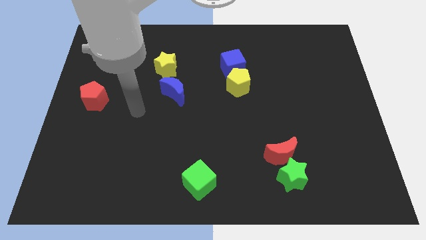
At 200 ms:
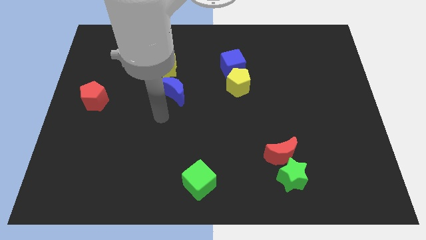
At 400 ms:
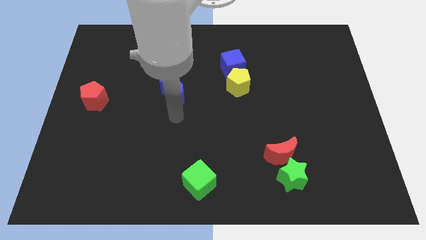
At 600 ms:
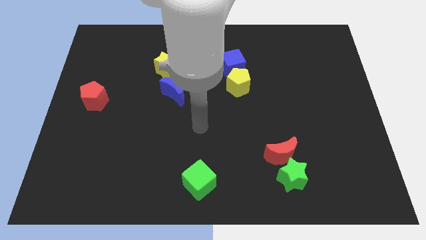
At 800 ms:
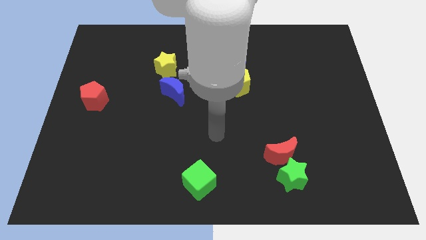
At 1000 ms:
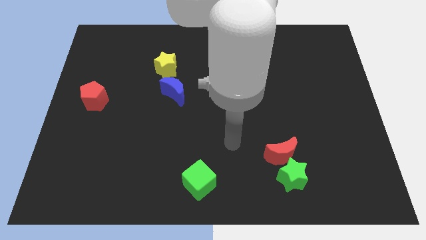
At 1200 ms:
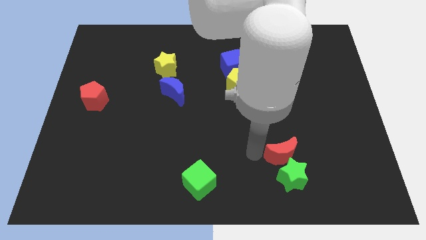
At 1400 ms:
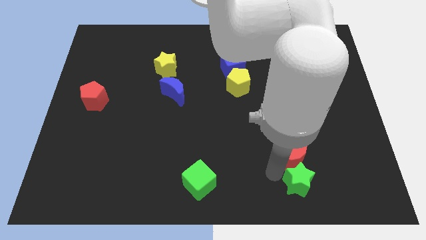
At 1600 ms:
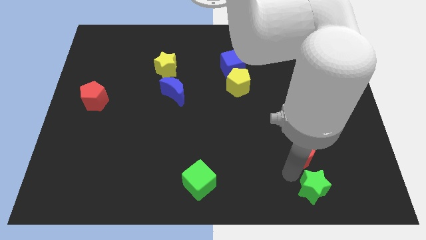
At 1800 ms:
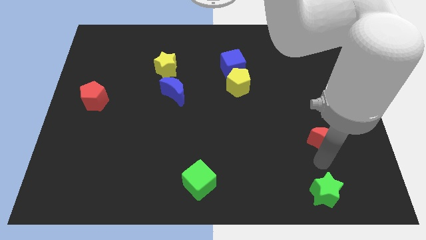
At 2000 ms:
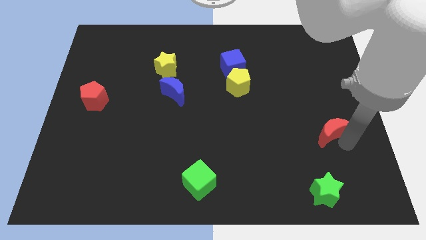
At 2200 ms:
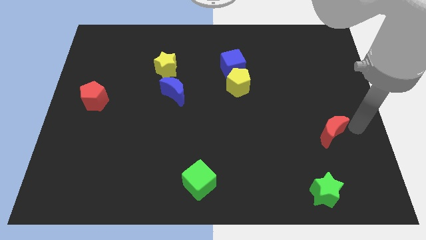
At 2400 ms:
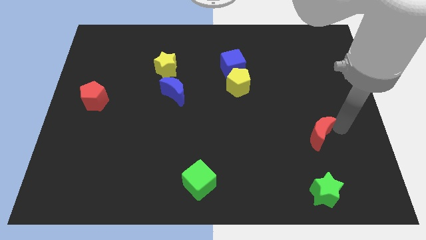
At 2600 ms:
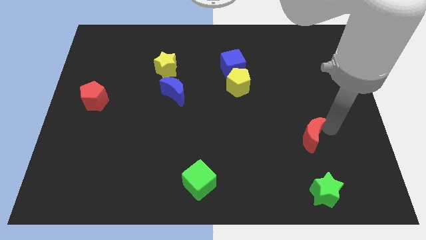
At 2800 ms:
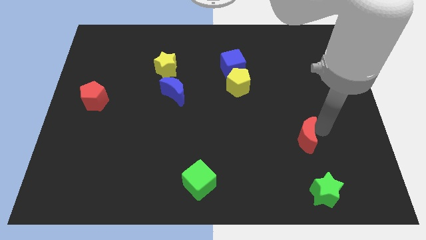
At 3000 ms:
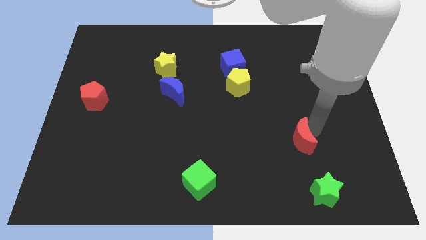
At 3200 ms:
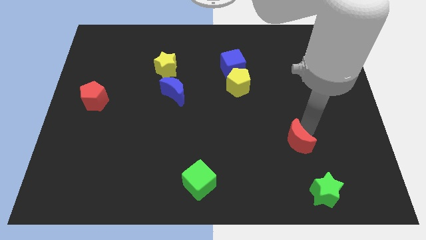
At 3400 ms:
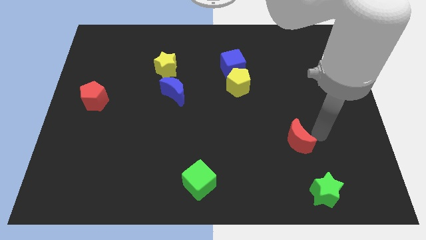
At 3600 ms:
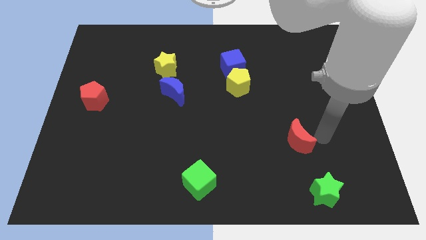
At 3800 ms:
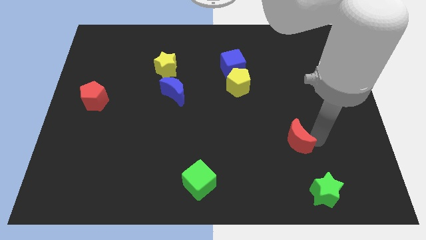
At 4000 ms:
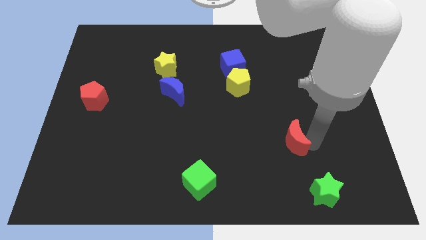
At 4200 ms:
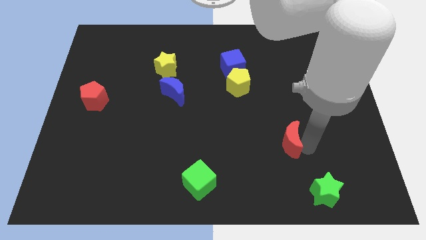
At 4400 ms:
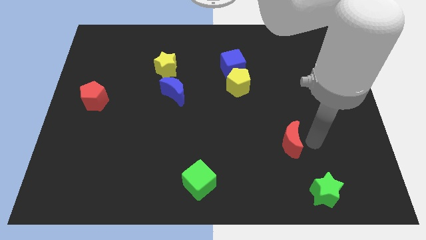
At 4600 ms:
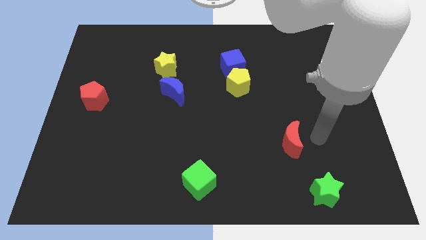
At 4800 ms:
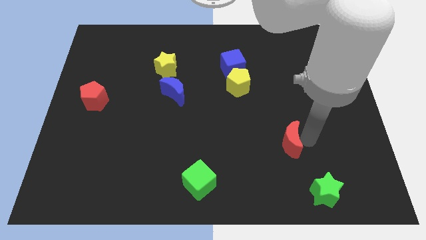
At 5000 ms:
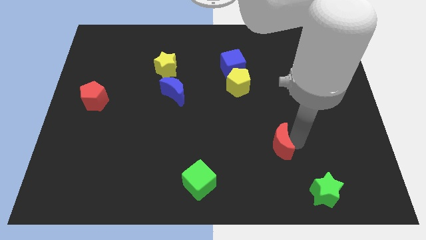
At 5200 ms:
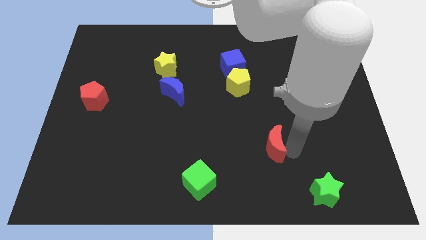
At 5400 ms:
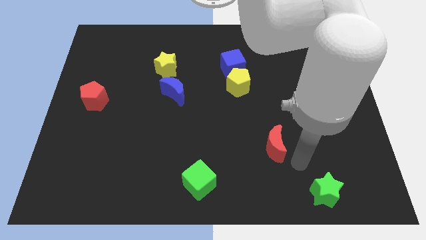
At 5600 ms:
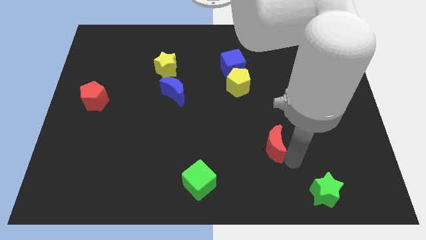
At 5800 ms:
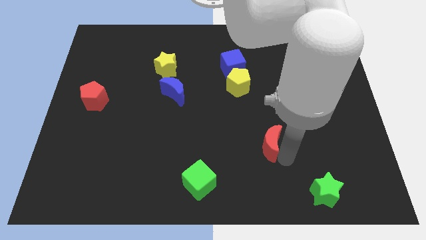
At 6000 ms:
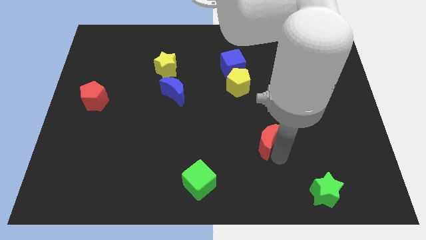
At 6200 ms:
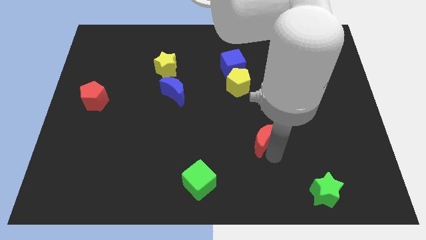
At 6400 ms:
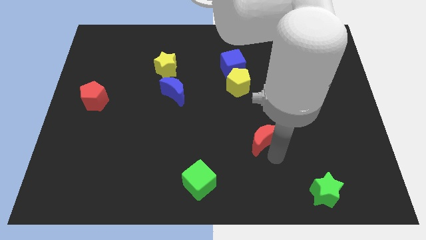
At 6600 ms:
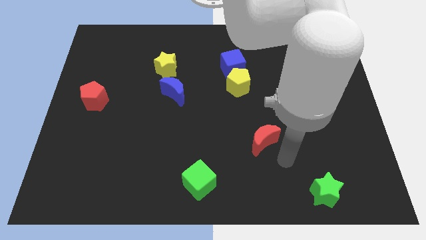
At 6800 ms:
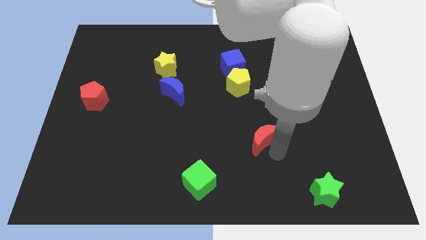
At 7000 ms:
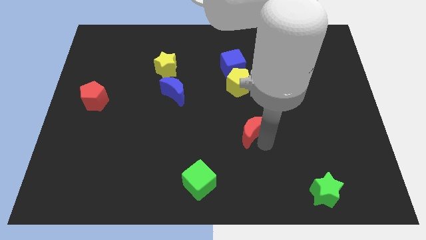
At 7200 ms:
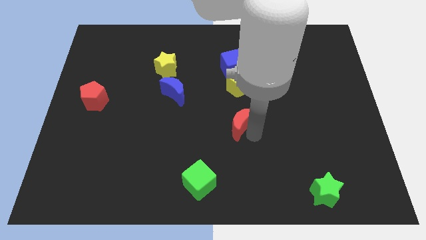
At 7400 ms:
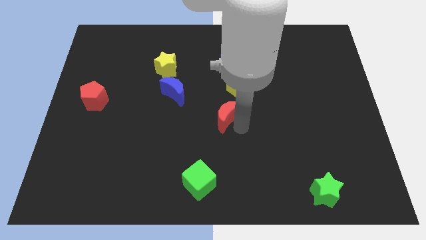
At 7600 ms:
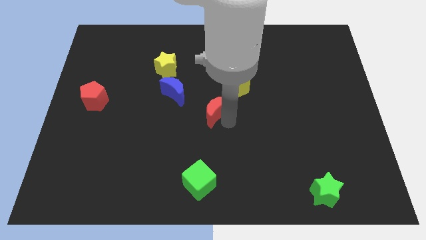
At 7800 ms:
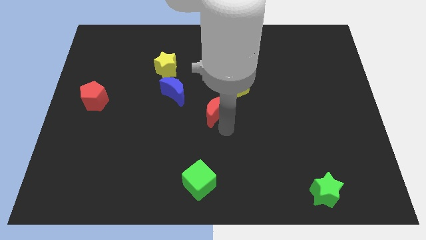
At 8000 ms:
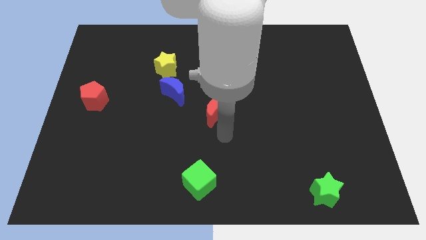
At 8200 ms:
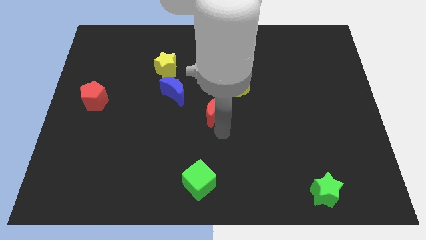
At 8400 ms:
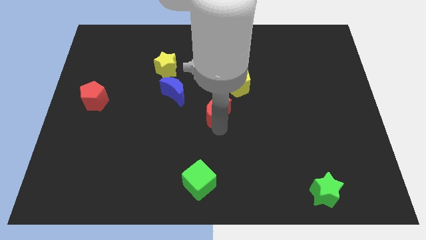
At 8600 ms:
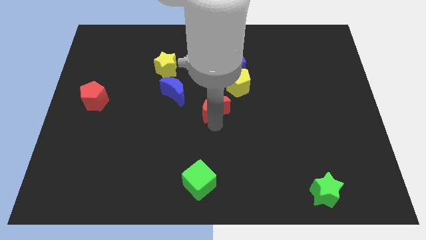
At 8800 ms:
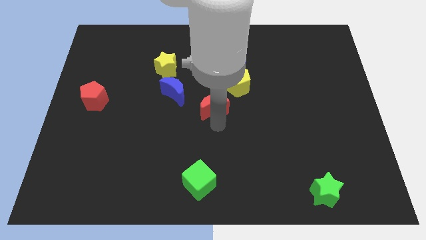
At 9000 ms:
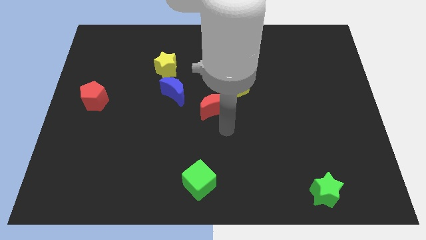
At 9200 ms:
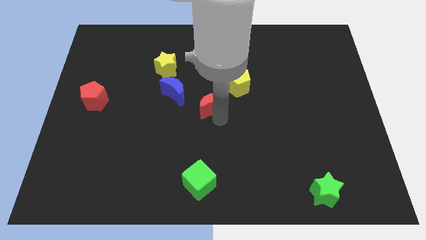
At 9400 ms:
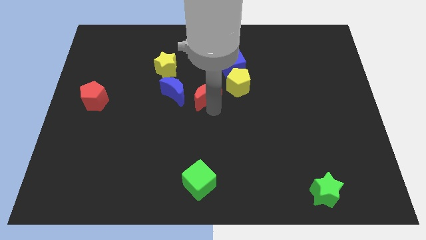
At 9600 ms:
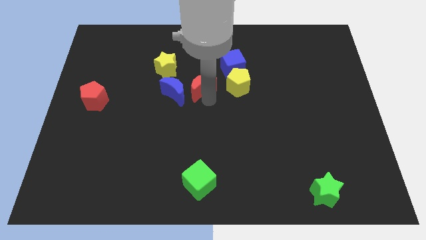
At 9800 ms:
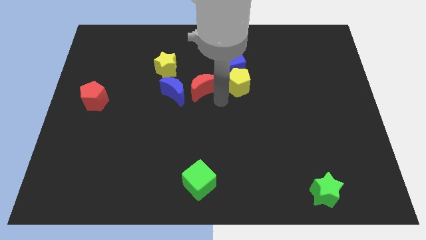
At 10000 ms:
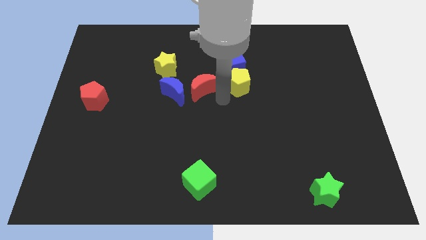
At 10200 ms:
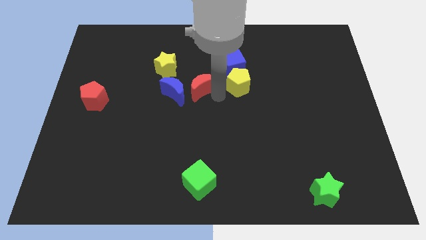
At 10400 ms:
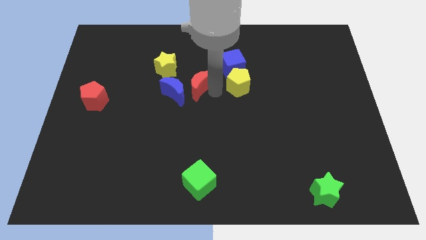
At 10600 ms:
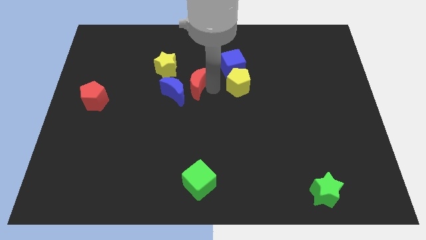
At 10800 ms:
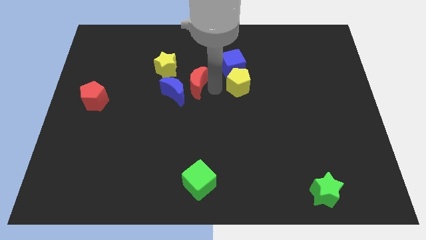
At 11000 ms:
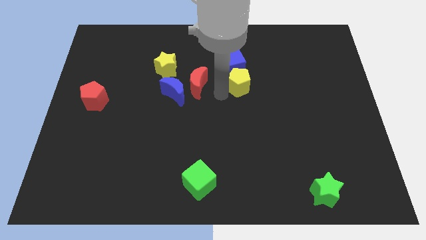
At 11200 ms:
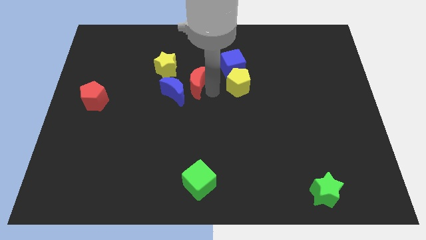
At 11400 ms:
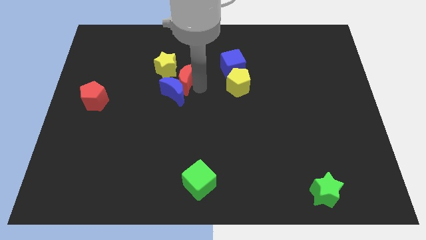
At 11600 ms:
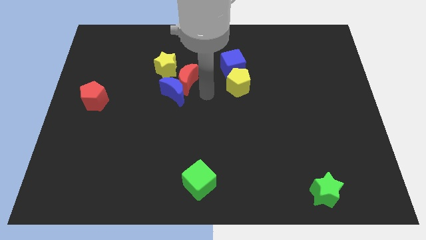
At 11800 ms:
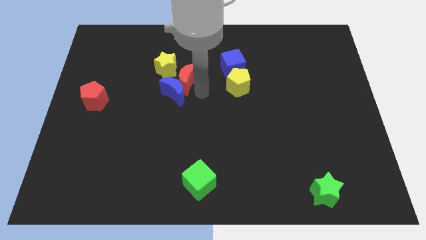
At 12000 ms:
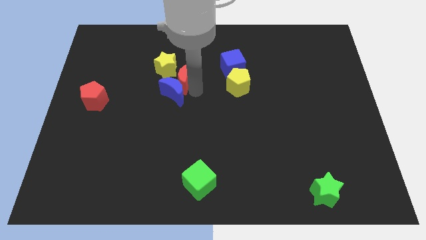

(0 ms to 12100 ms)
move the red moon towards the yellow star

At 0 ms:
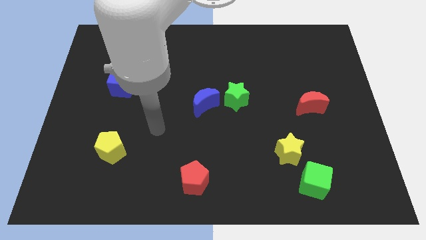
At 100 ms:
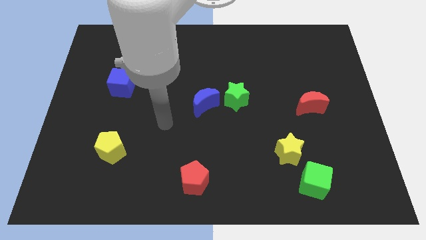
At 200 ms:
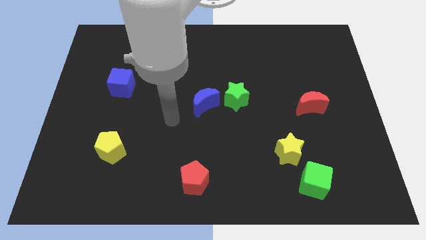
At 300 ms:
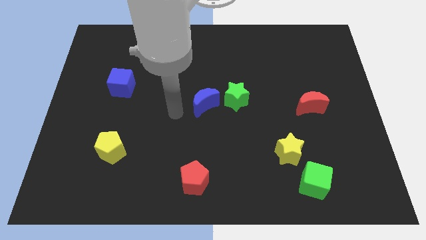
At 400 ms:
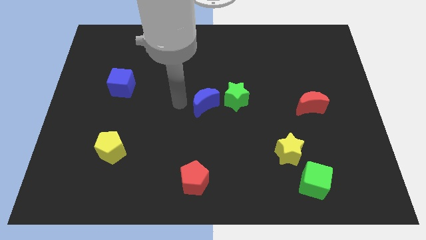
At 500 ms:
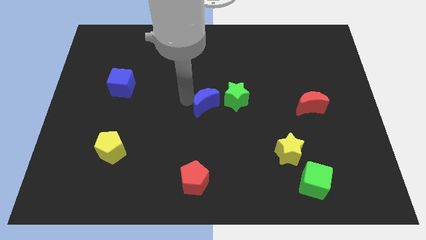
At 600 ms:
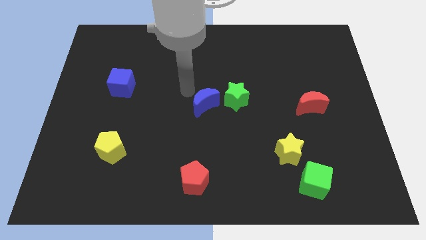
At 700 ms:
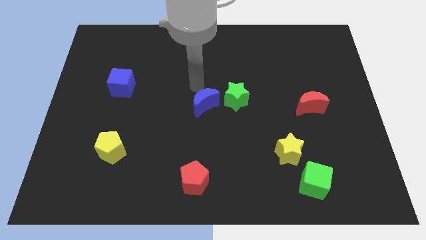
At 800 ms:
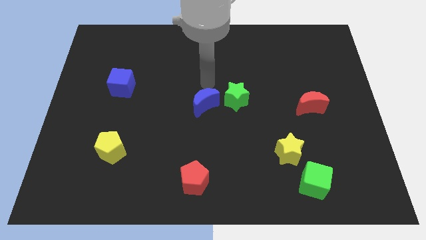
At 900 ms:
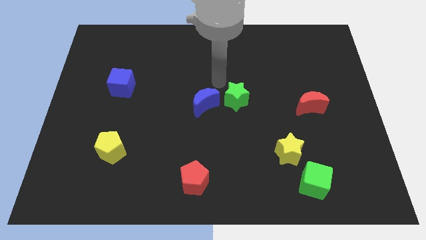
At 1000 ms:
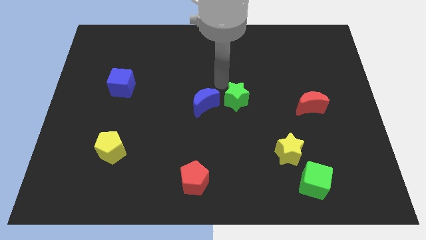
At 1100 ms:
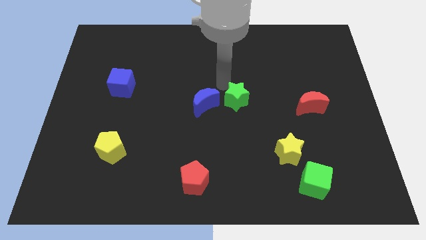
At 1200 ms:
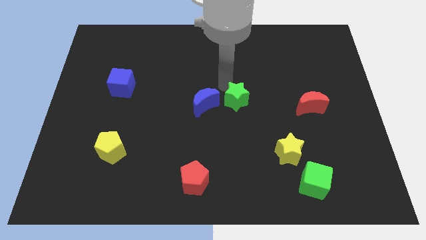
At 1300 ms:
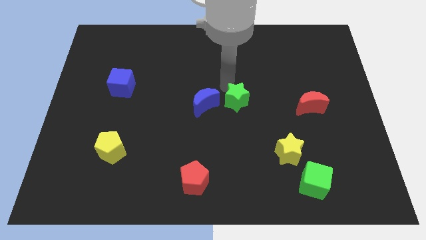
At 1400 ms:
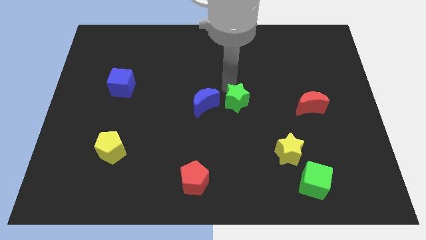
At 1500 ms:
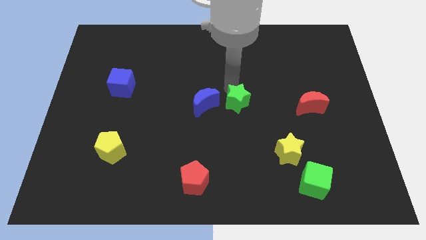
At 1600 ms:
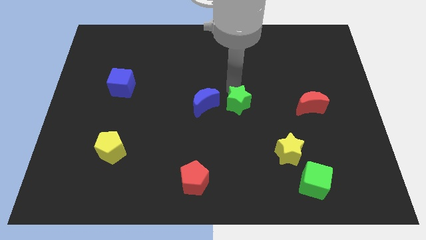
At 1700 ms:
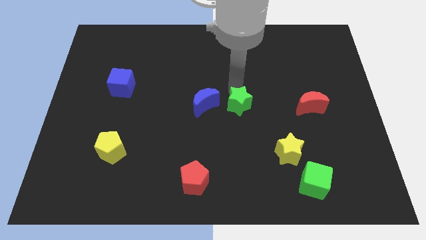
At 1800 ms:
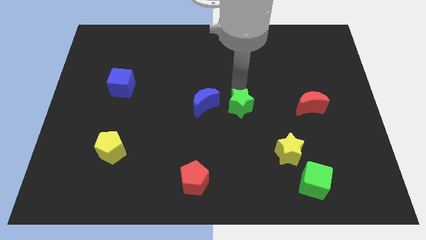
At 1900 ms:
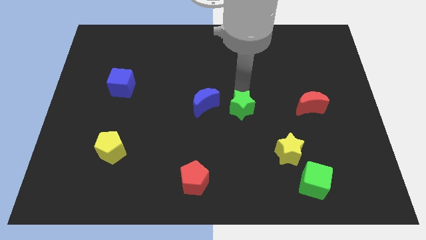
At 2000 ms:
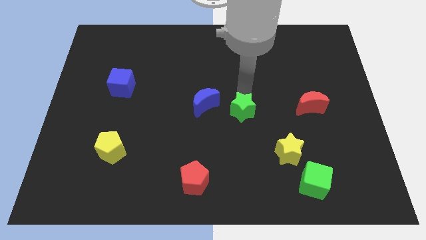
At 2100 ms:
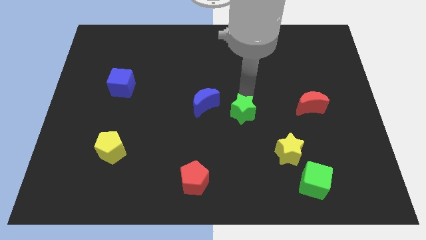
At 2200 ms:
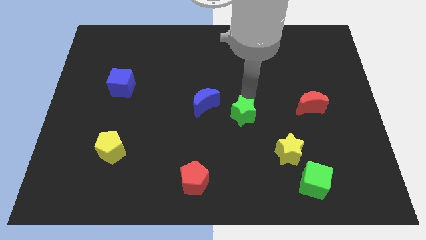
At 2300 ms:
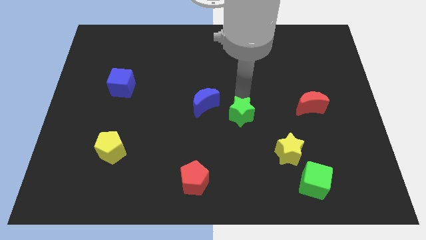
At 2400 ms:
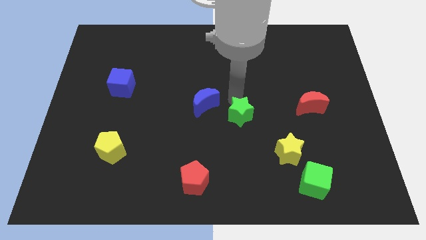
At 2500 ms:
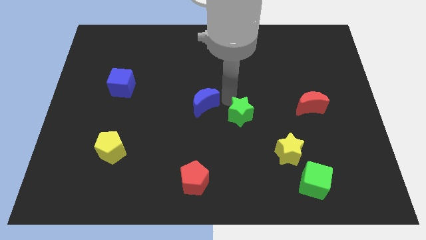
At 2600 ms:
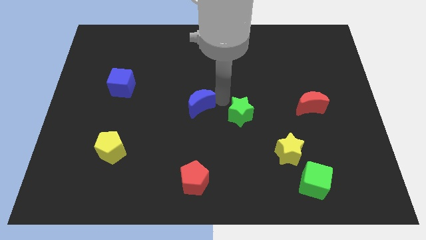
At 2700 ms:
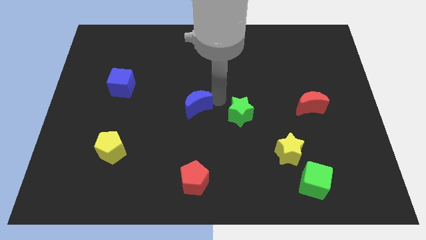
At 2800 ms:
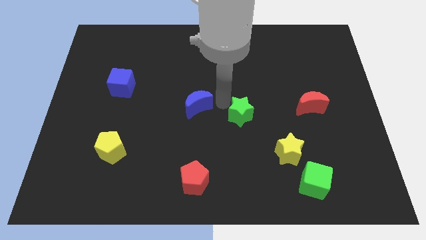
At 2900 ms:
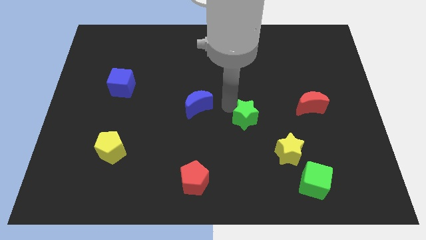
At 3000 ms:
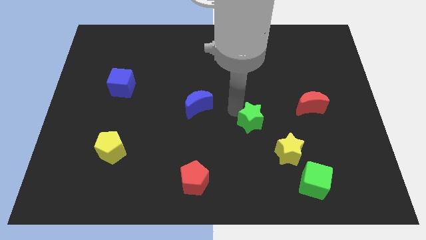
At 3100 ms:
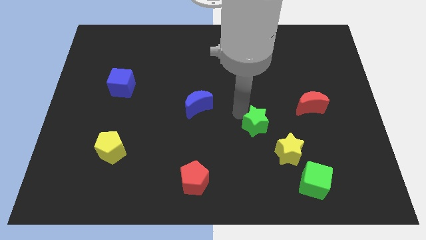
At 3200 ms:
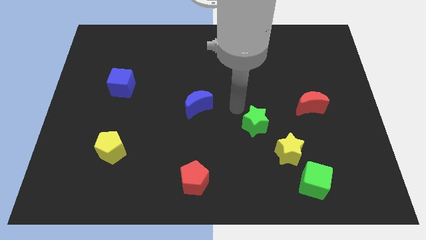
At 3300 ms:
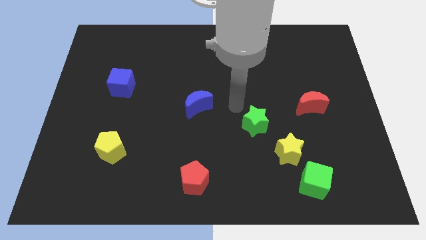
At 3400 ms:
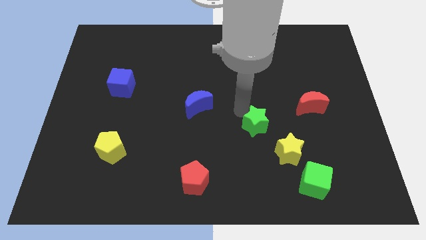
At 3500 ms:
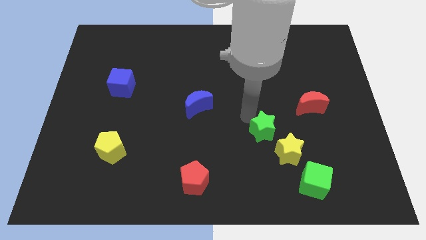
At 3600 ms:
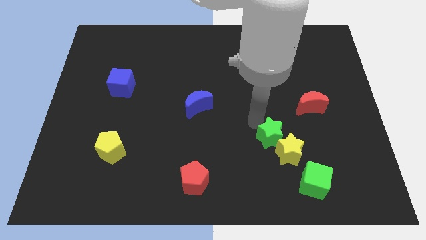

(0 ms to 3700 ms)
push the green star close to the yellow star
